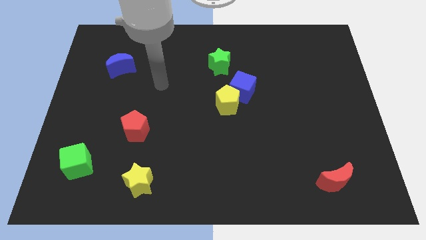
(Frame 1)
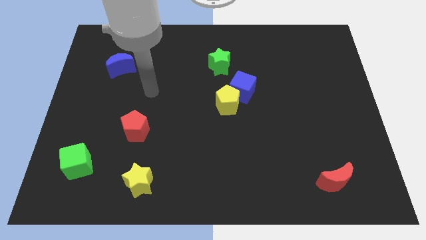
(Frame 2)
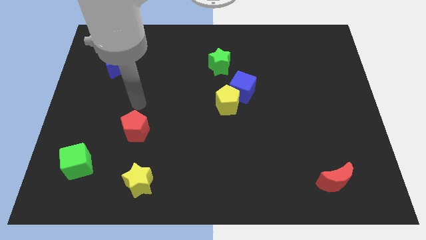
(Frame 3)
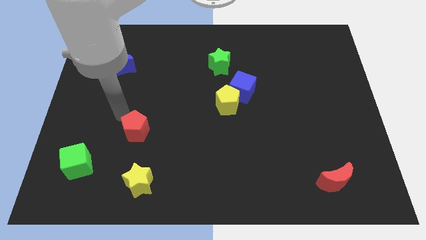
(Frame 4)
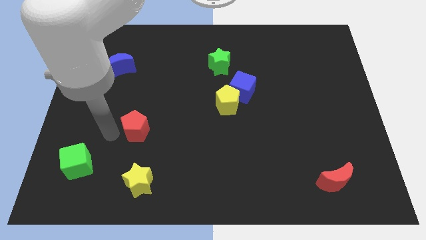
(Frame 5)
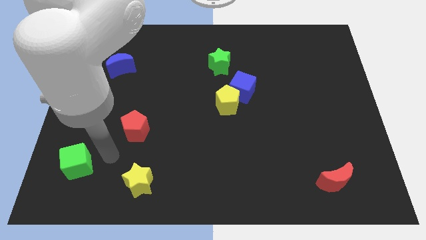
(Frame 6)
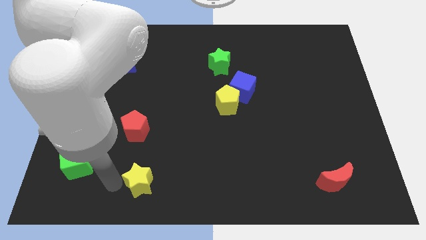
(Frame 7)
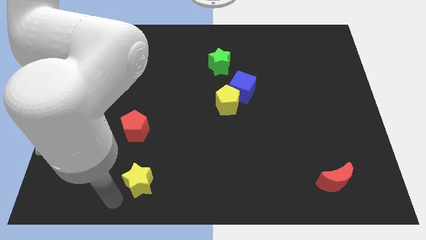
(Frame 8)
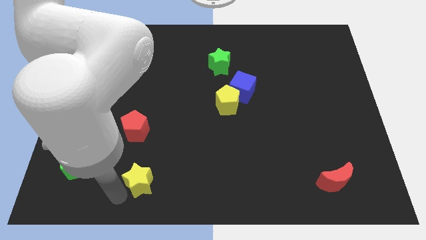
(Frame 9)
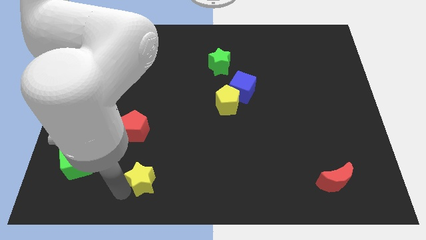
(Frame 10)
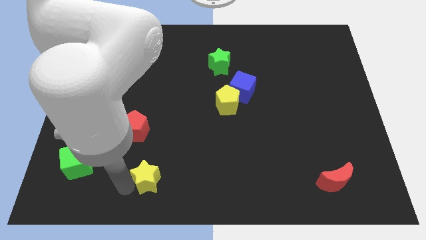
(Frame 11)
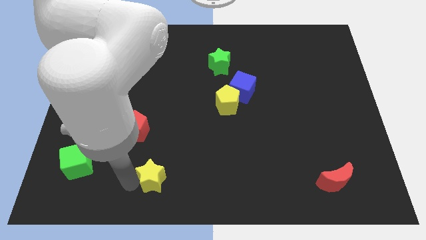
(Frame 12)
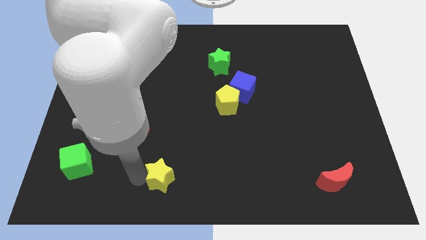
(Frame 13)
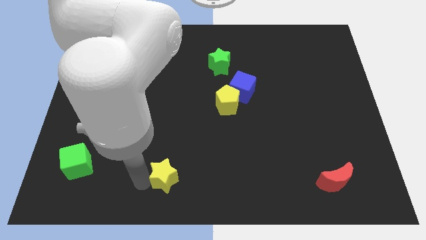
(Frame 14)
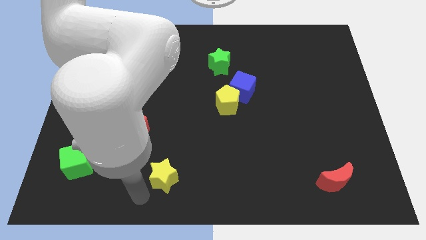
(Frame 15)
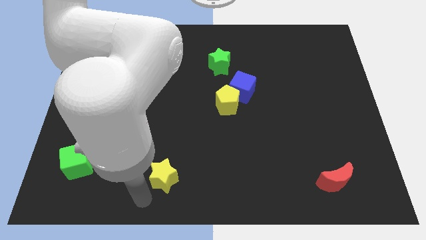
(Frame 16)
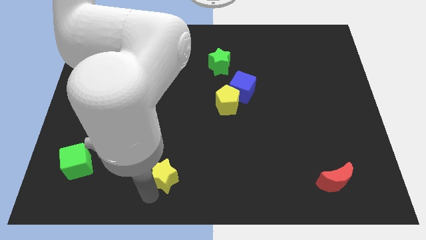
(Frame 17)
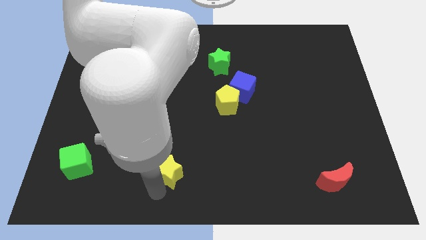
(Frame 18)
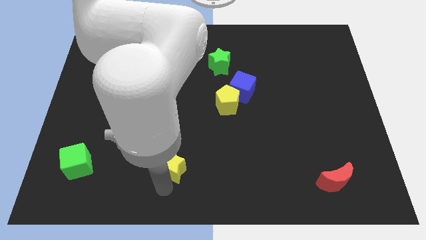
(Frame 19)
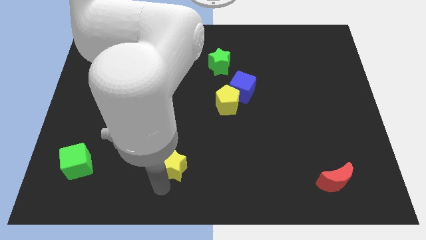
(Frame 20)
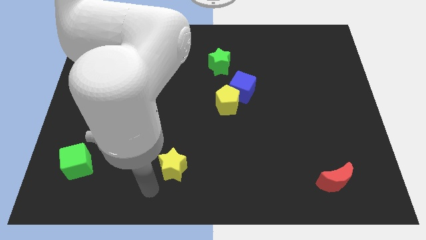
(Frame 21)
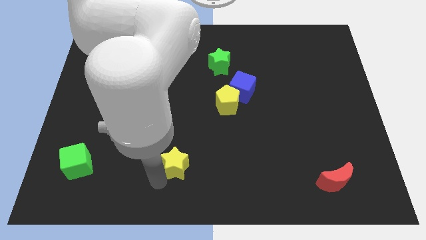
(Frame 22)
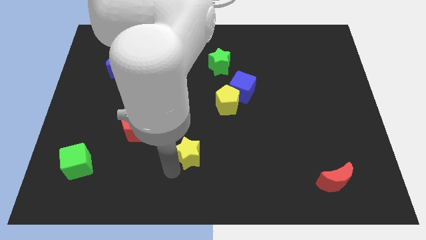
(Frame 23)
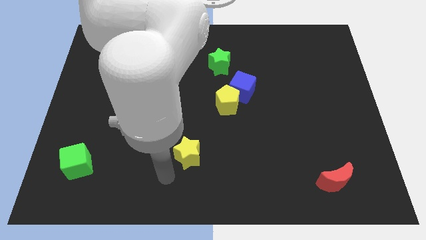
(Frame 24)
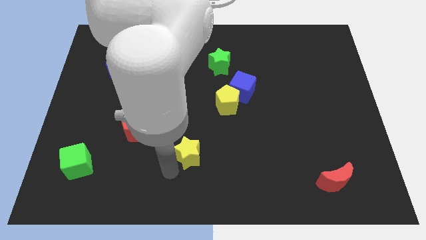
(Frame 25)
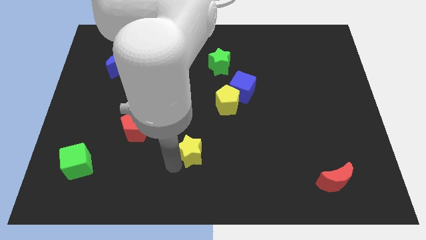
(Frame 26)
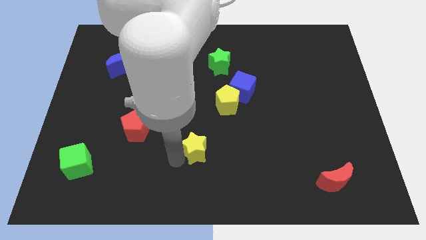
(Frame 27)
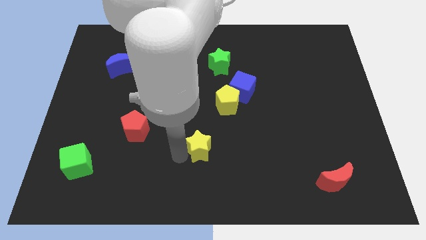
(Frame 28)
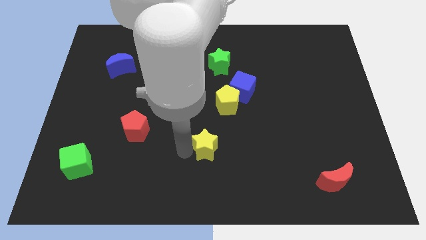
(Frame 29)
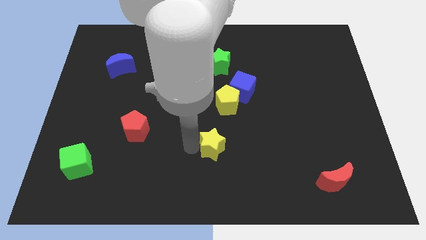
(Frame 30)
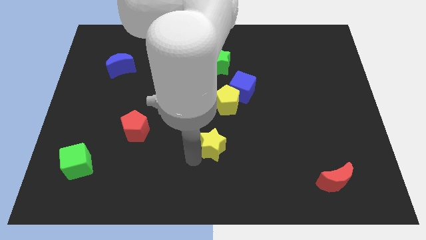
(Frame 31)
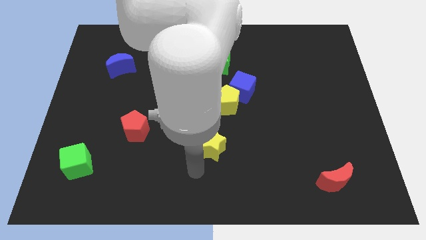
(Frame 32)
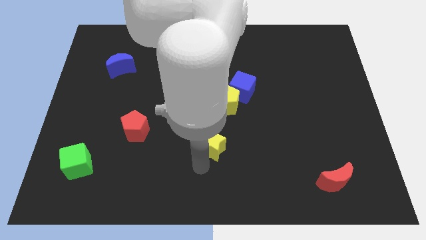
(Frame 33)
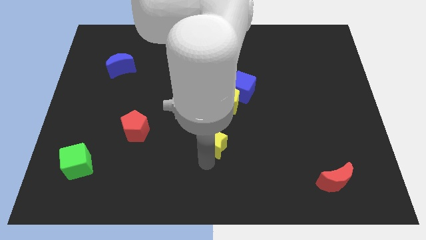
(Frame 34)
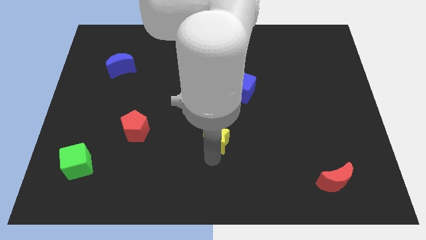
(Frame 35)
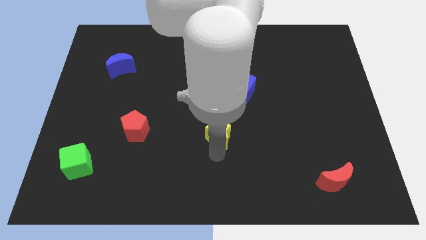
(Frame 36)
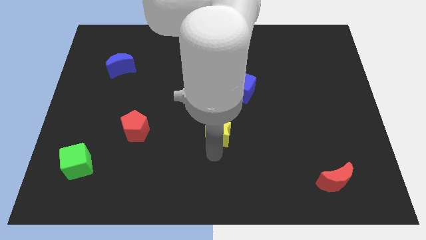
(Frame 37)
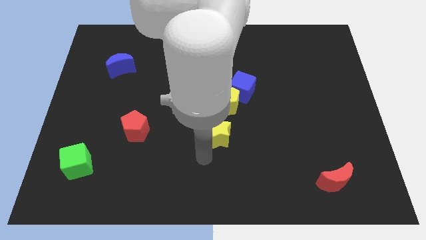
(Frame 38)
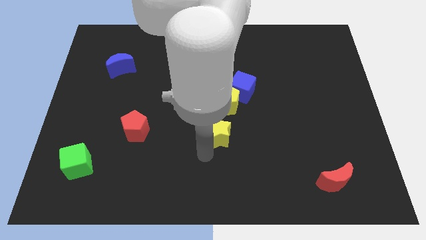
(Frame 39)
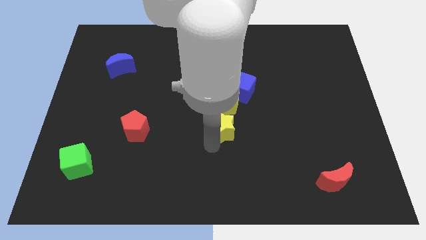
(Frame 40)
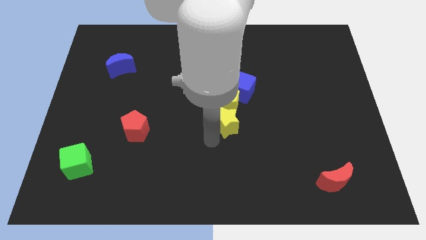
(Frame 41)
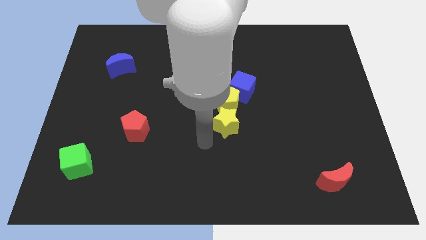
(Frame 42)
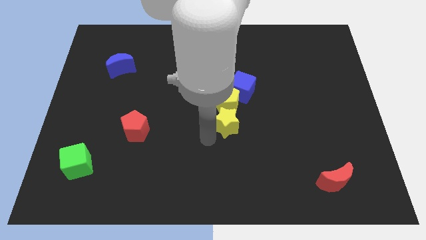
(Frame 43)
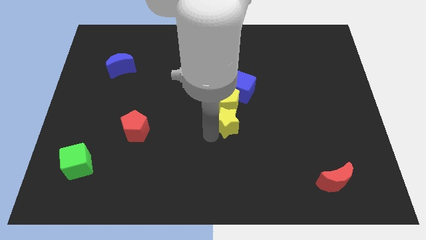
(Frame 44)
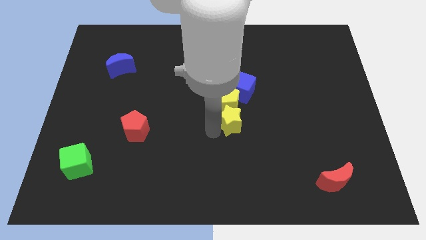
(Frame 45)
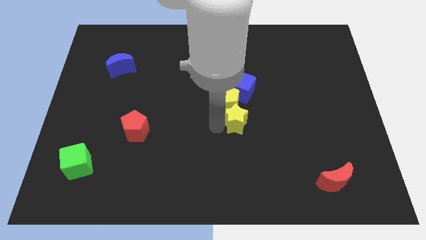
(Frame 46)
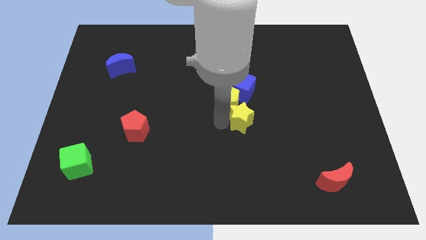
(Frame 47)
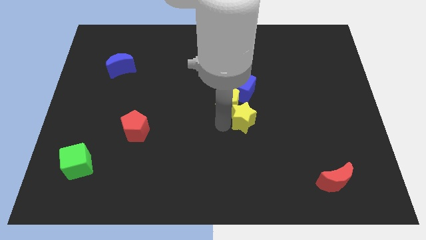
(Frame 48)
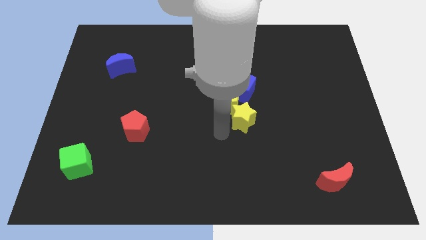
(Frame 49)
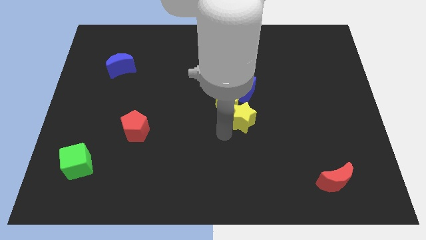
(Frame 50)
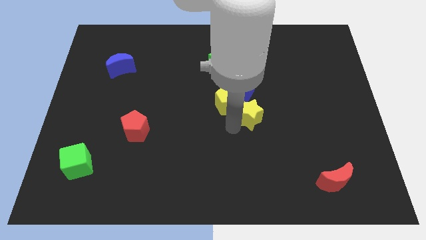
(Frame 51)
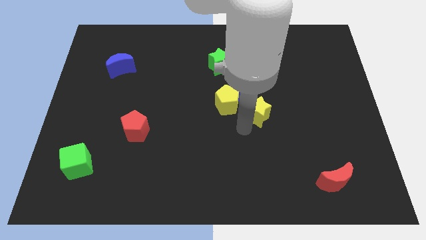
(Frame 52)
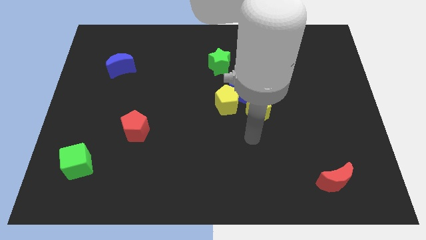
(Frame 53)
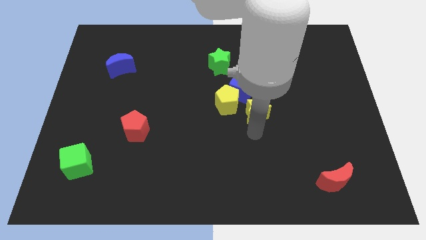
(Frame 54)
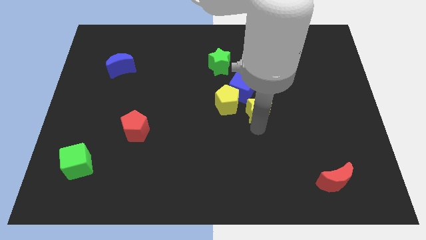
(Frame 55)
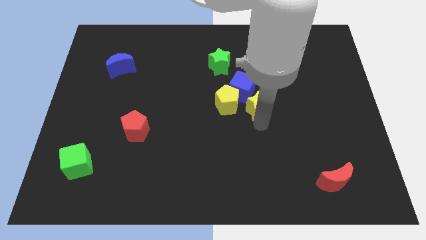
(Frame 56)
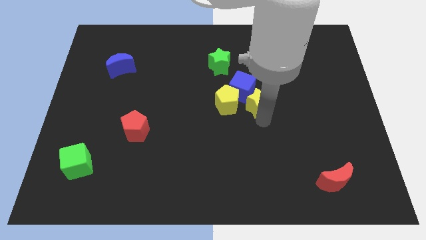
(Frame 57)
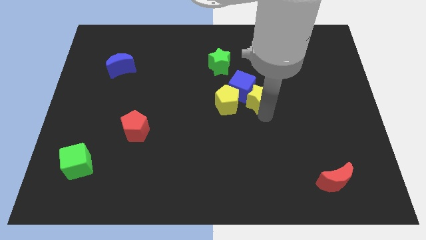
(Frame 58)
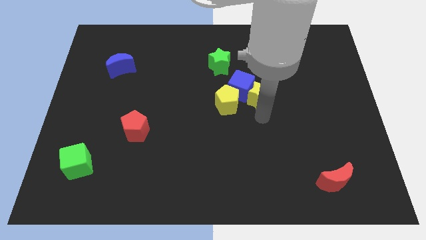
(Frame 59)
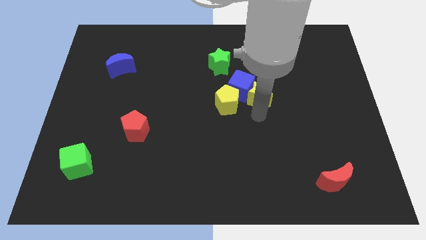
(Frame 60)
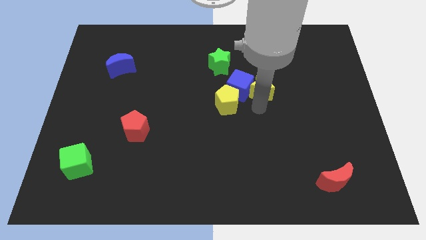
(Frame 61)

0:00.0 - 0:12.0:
push the yellow star to the top right of the blue cube
